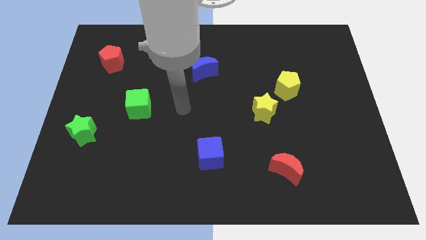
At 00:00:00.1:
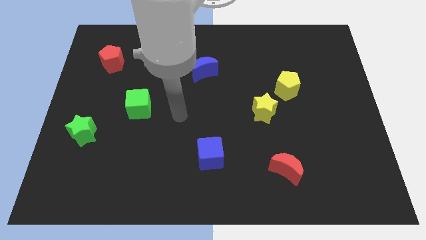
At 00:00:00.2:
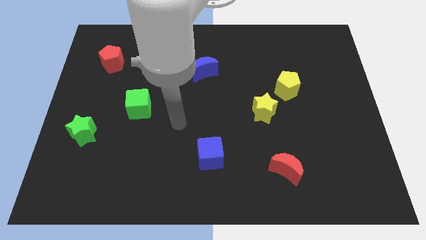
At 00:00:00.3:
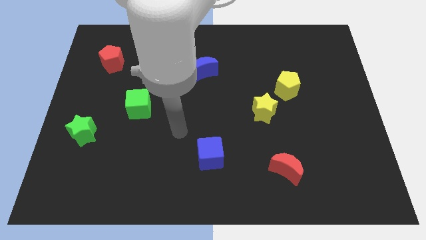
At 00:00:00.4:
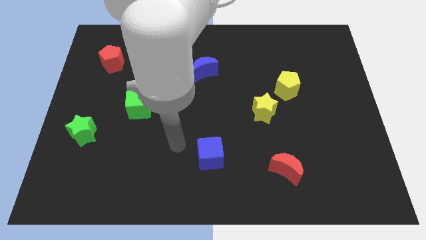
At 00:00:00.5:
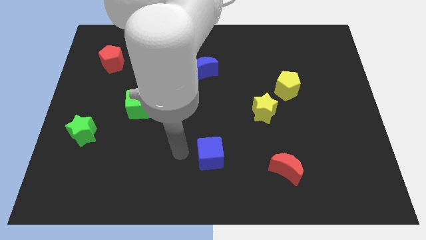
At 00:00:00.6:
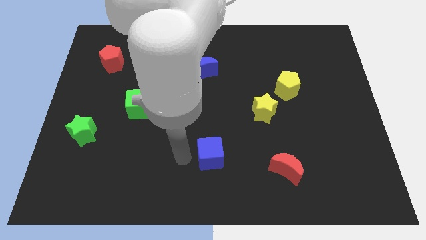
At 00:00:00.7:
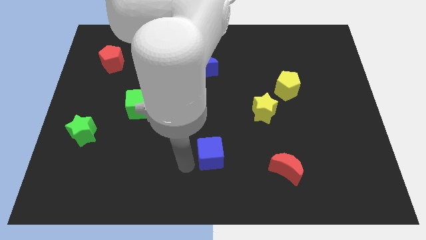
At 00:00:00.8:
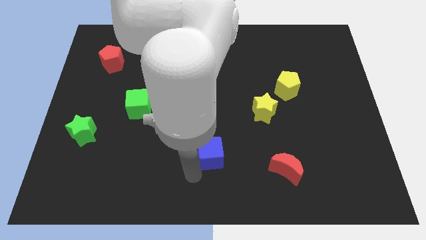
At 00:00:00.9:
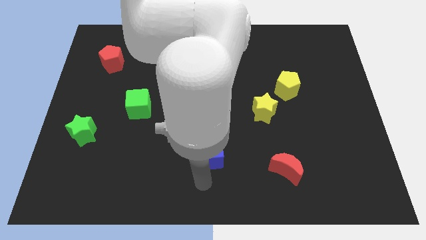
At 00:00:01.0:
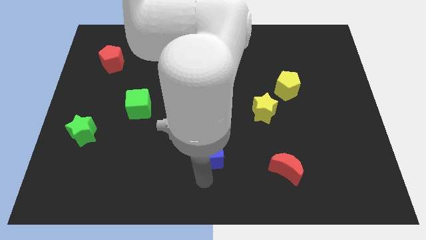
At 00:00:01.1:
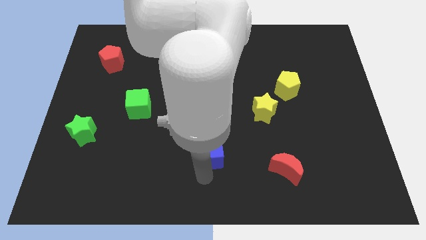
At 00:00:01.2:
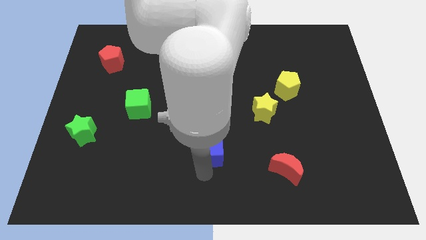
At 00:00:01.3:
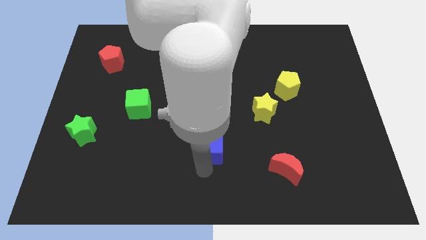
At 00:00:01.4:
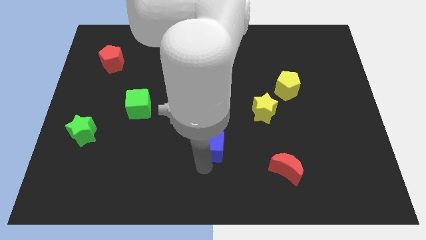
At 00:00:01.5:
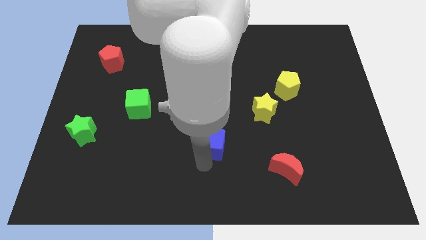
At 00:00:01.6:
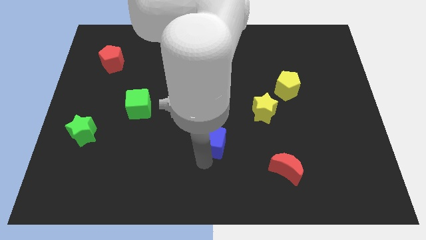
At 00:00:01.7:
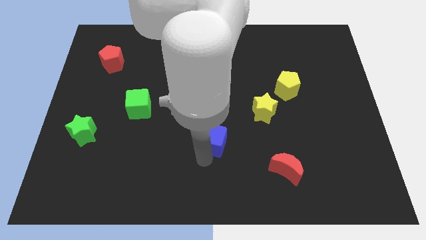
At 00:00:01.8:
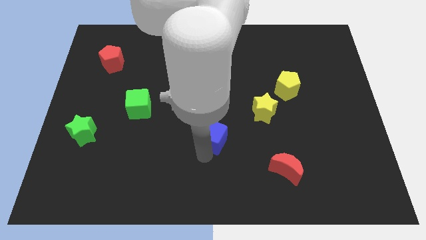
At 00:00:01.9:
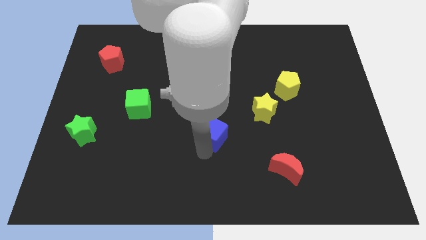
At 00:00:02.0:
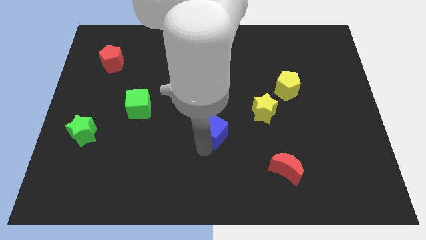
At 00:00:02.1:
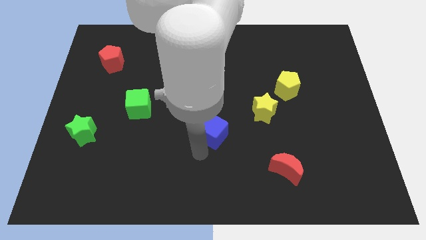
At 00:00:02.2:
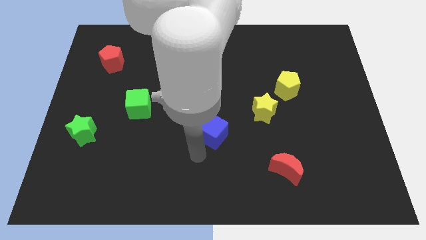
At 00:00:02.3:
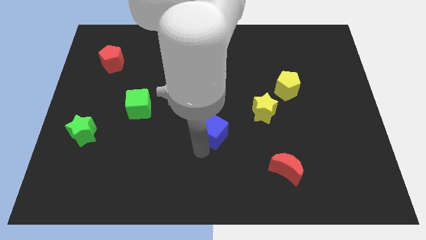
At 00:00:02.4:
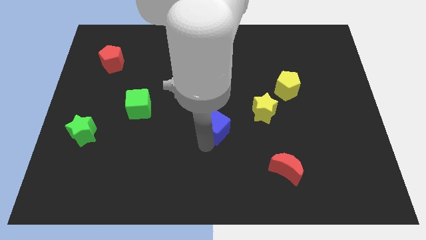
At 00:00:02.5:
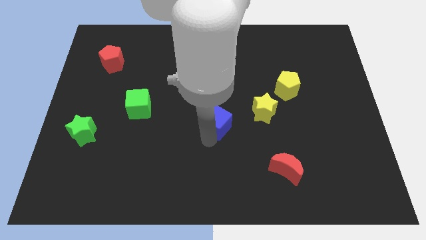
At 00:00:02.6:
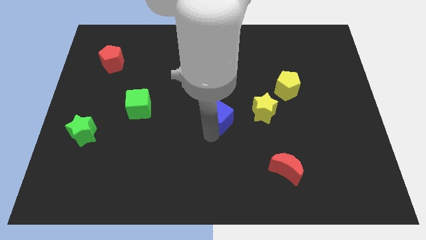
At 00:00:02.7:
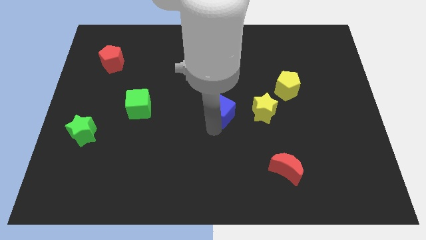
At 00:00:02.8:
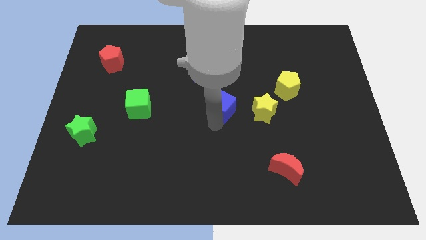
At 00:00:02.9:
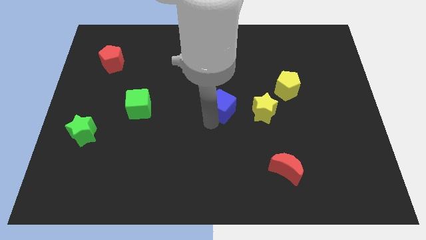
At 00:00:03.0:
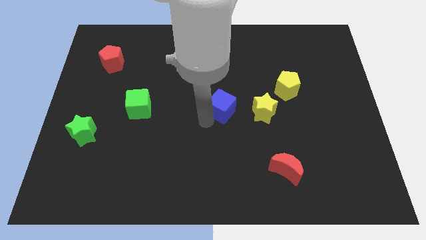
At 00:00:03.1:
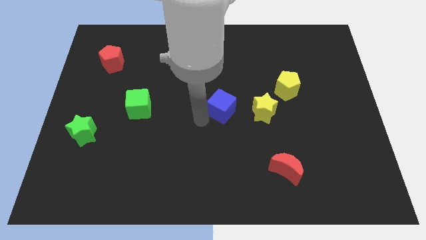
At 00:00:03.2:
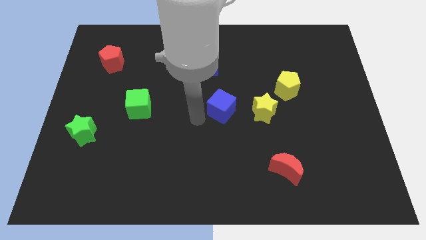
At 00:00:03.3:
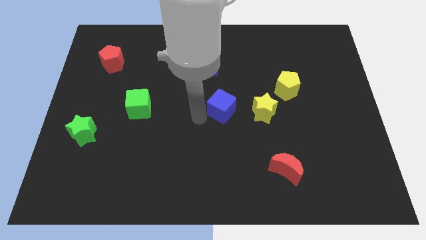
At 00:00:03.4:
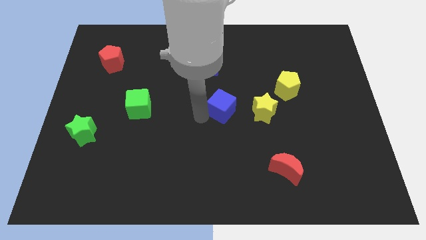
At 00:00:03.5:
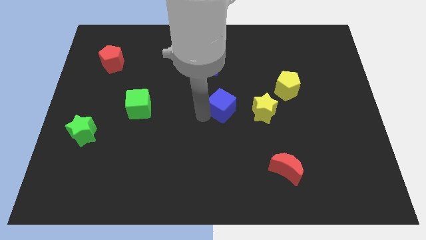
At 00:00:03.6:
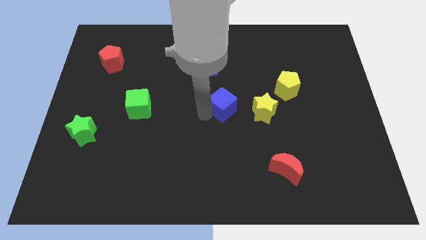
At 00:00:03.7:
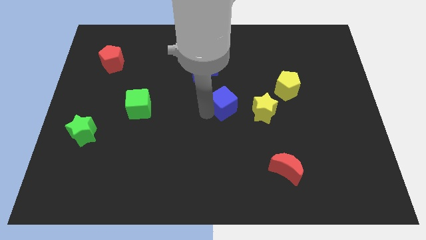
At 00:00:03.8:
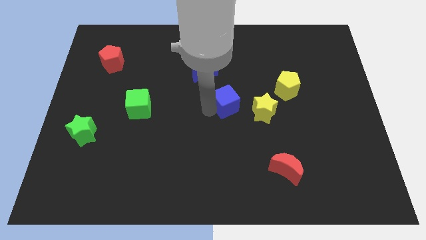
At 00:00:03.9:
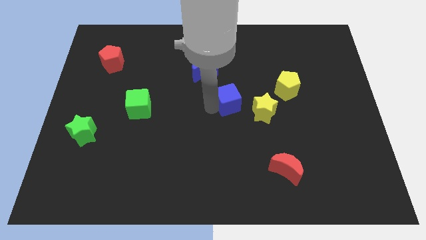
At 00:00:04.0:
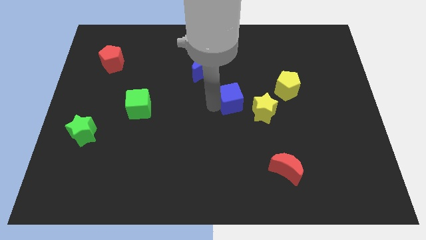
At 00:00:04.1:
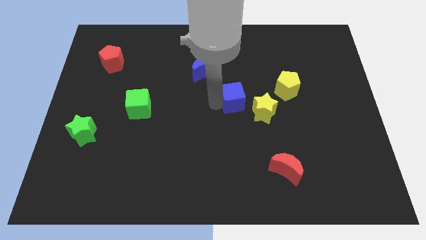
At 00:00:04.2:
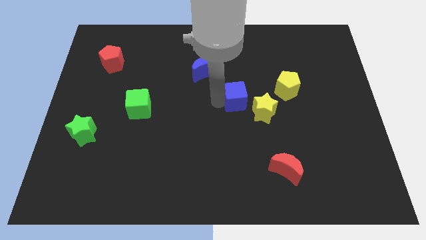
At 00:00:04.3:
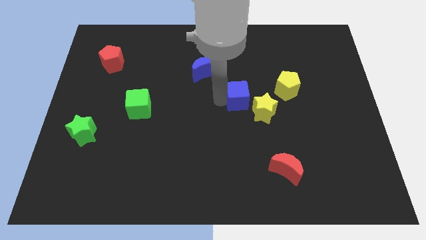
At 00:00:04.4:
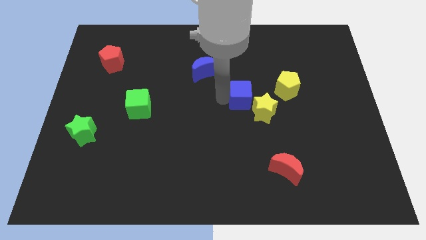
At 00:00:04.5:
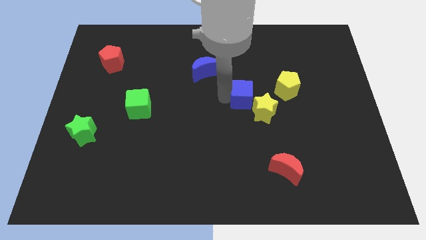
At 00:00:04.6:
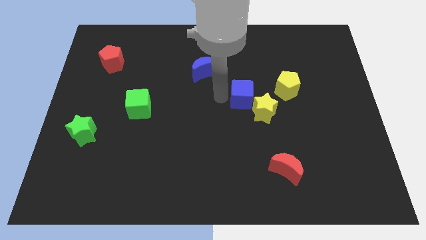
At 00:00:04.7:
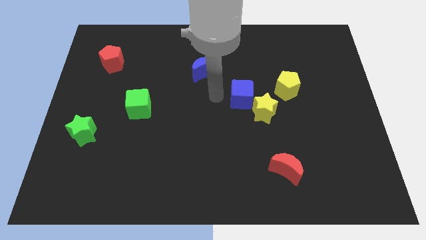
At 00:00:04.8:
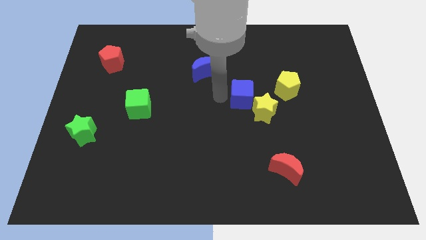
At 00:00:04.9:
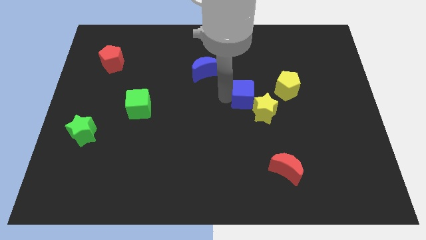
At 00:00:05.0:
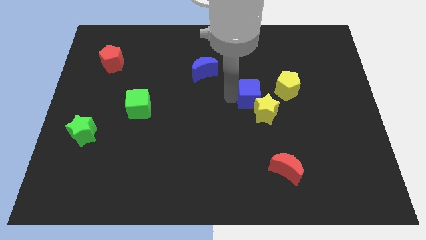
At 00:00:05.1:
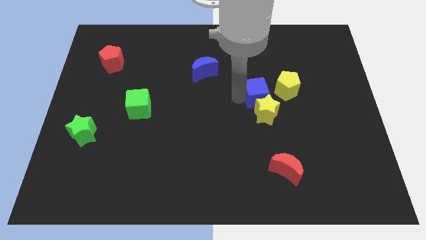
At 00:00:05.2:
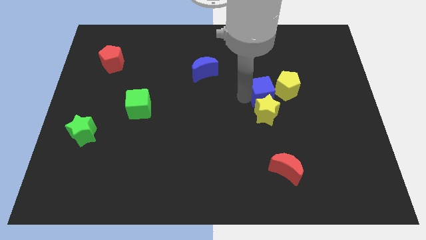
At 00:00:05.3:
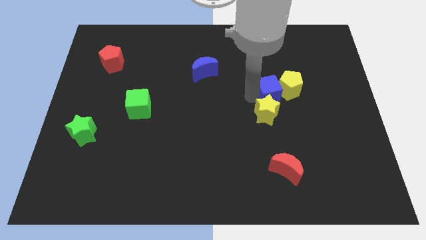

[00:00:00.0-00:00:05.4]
slide the blue cube next to the yellow pentagon

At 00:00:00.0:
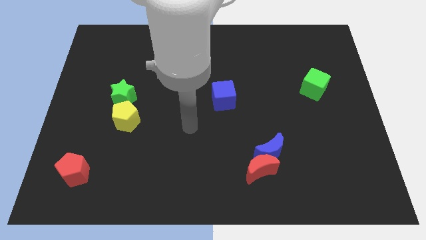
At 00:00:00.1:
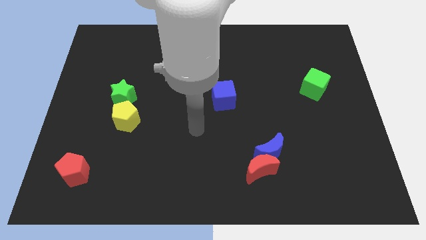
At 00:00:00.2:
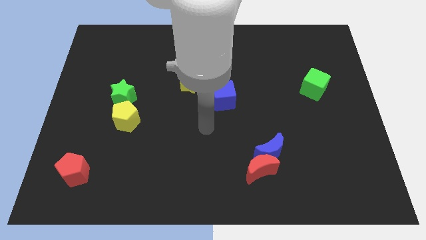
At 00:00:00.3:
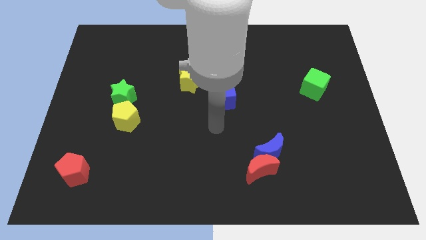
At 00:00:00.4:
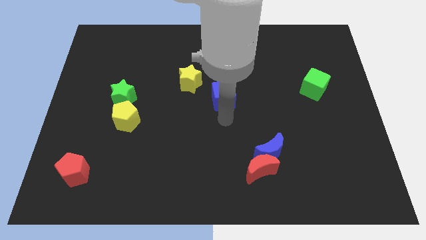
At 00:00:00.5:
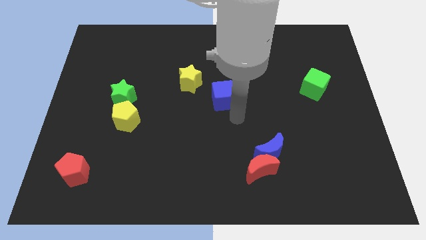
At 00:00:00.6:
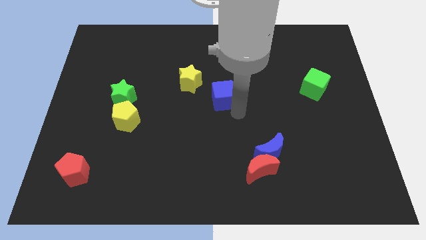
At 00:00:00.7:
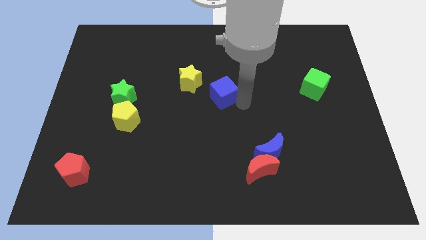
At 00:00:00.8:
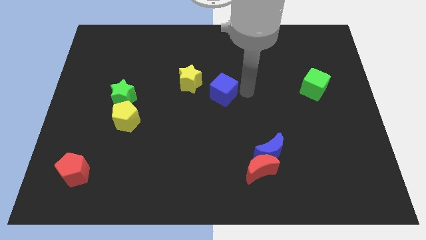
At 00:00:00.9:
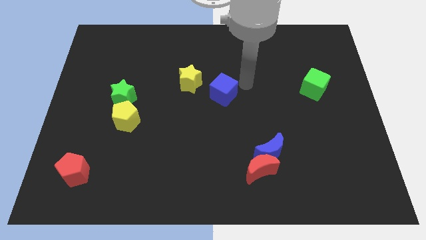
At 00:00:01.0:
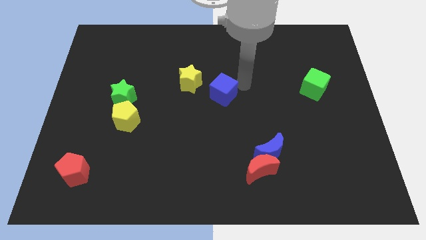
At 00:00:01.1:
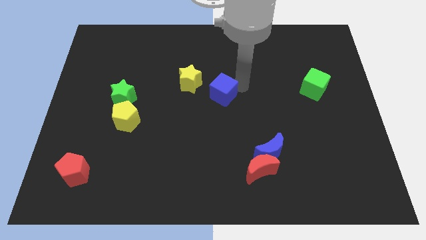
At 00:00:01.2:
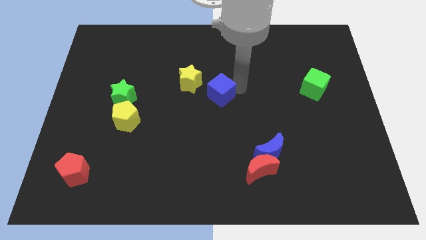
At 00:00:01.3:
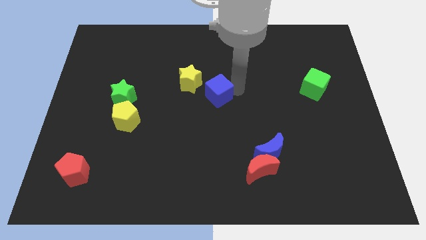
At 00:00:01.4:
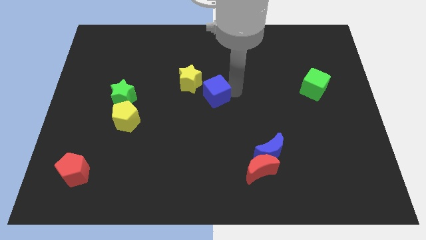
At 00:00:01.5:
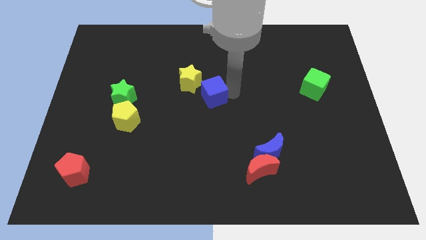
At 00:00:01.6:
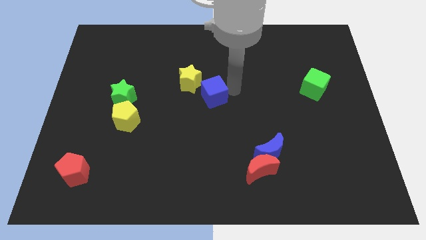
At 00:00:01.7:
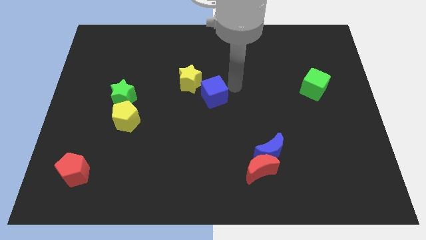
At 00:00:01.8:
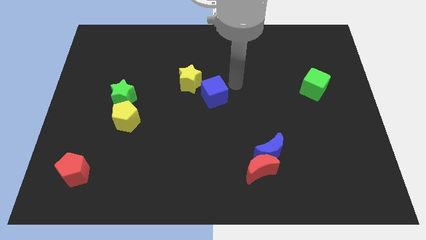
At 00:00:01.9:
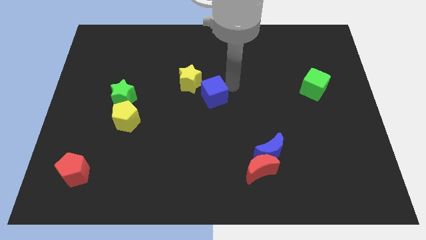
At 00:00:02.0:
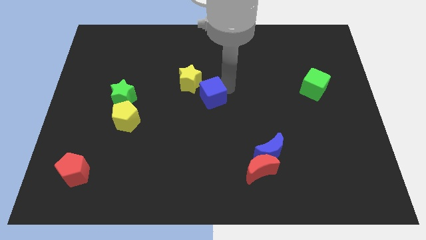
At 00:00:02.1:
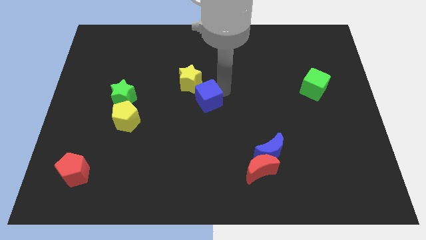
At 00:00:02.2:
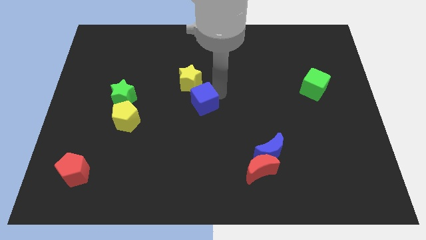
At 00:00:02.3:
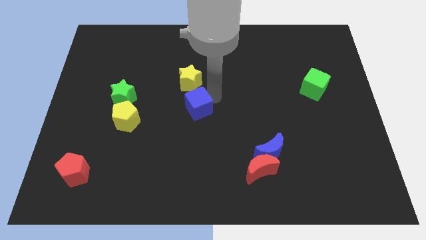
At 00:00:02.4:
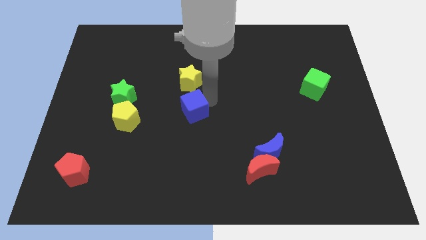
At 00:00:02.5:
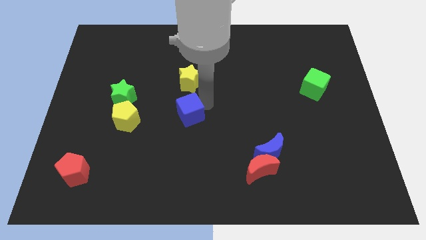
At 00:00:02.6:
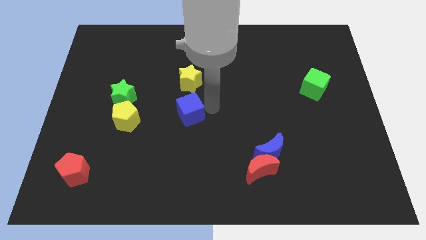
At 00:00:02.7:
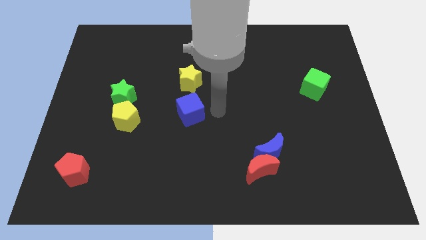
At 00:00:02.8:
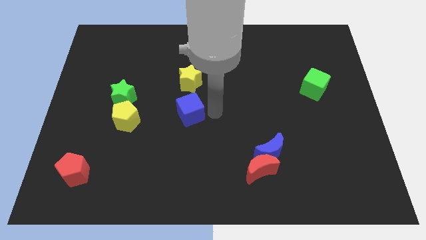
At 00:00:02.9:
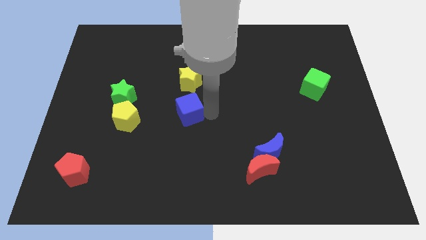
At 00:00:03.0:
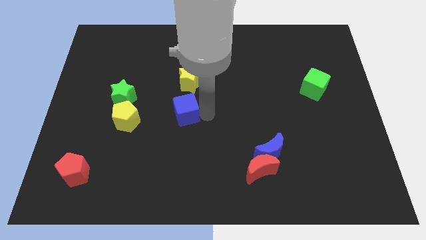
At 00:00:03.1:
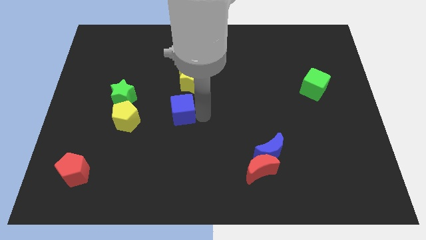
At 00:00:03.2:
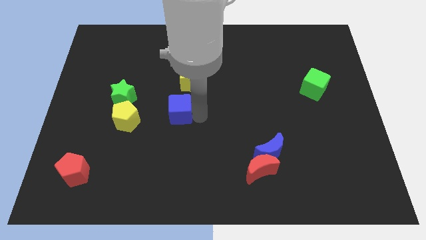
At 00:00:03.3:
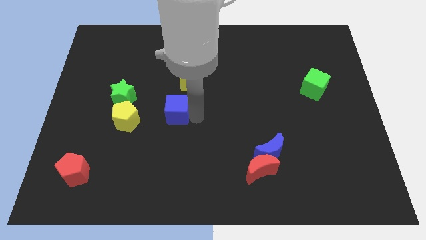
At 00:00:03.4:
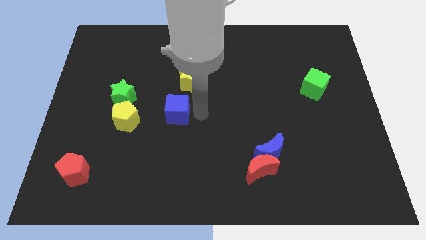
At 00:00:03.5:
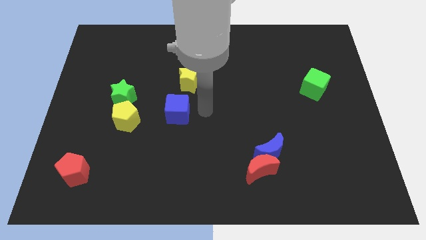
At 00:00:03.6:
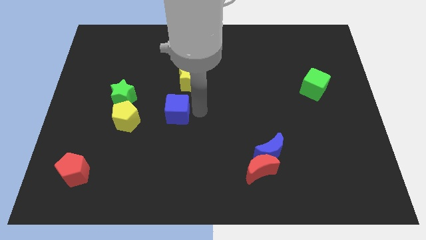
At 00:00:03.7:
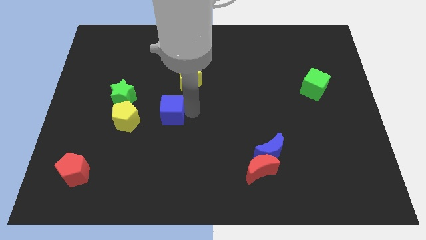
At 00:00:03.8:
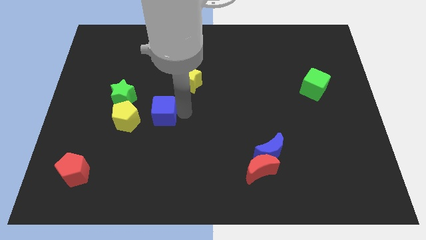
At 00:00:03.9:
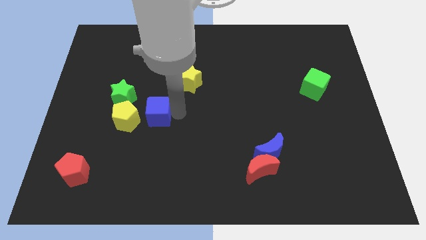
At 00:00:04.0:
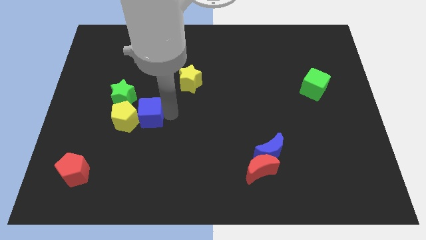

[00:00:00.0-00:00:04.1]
slide the blue cube close to the yellow pentagon
